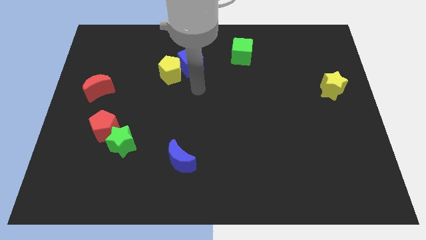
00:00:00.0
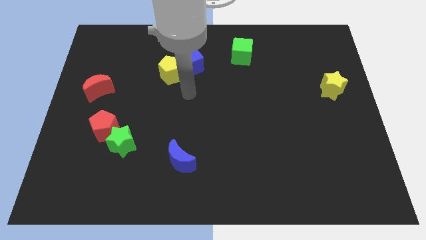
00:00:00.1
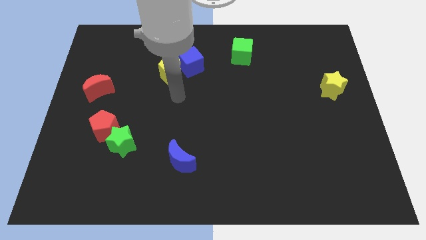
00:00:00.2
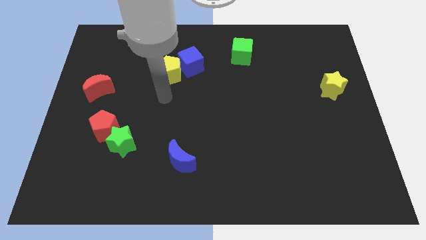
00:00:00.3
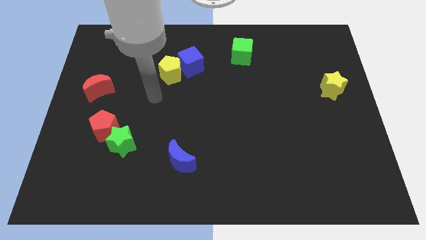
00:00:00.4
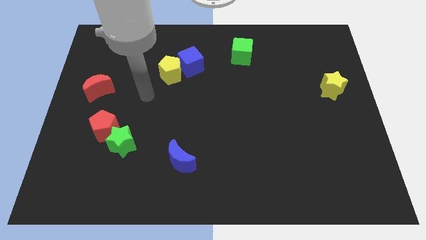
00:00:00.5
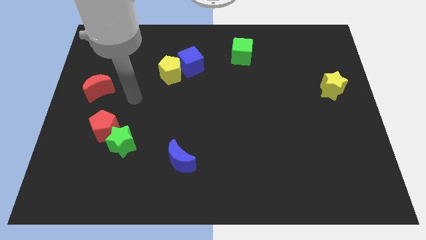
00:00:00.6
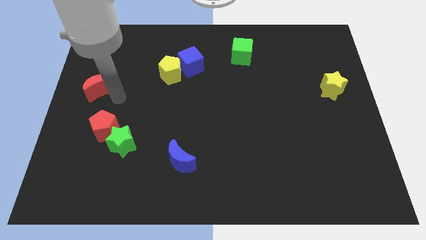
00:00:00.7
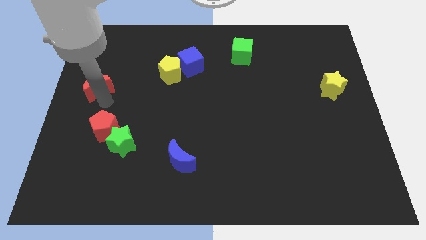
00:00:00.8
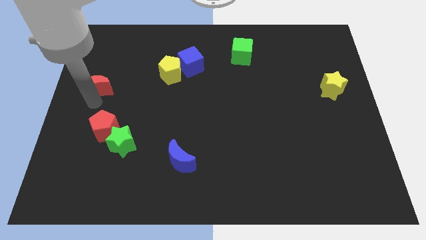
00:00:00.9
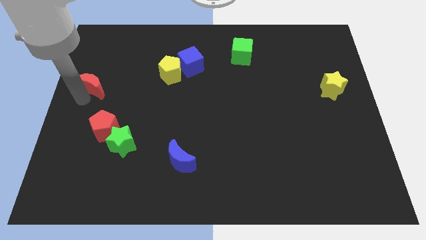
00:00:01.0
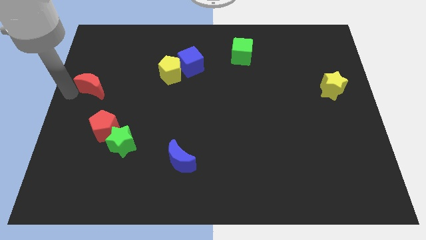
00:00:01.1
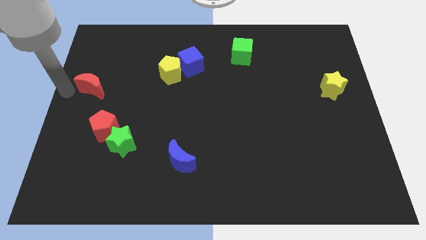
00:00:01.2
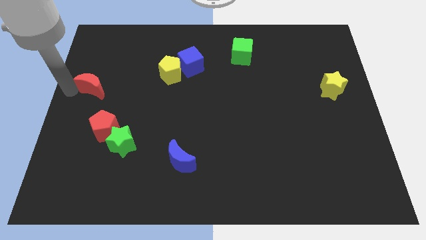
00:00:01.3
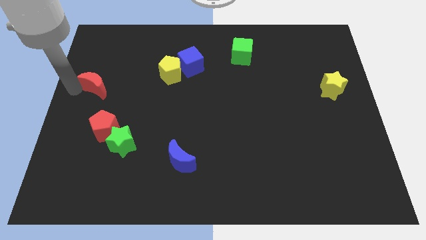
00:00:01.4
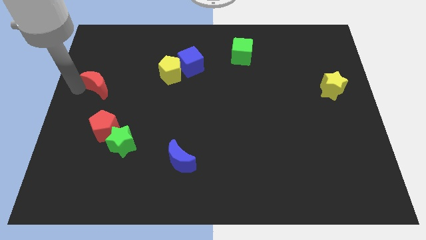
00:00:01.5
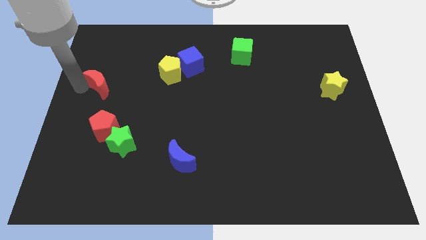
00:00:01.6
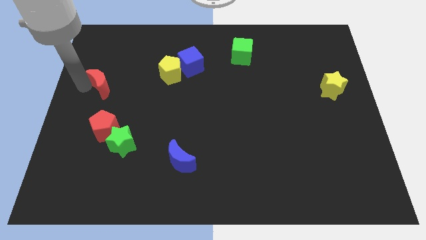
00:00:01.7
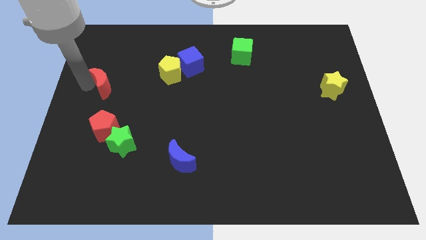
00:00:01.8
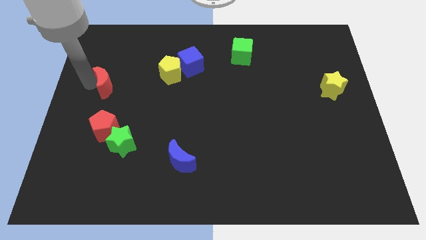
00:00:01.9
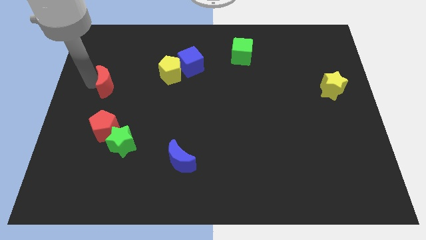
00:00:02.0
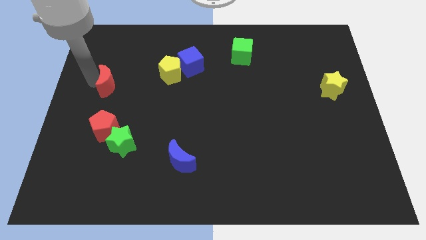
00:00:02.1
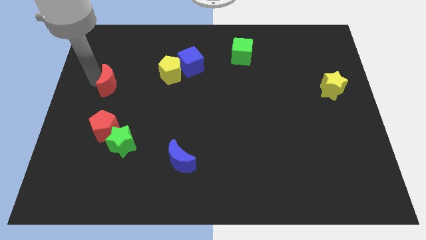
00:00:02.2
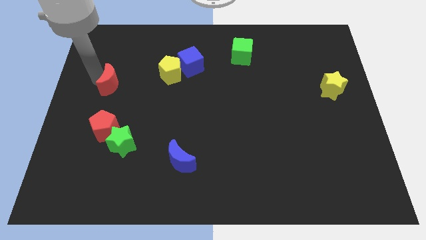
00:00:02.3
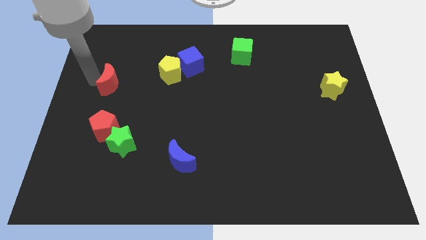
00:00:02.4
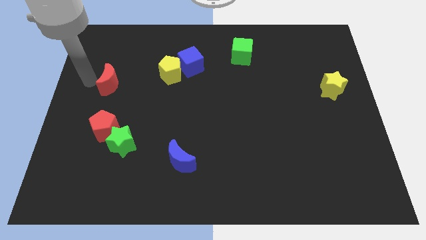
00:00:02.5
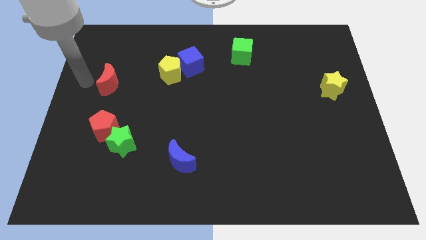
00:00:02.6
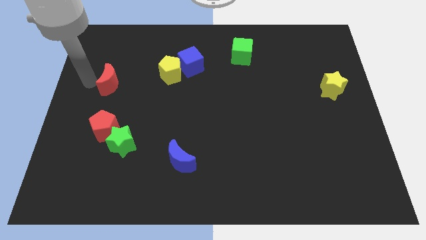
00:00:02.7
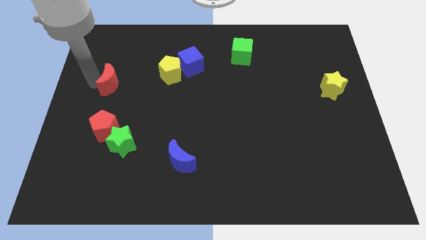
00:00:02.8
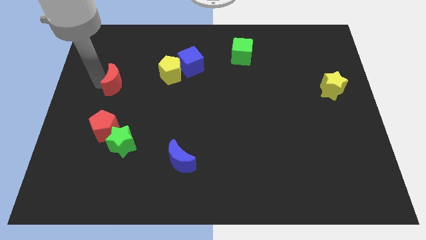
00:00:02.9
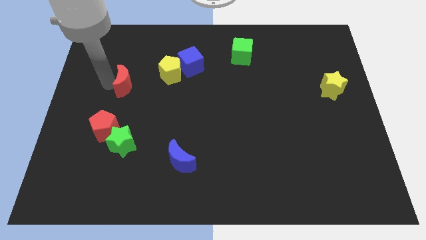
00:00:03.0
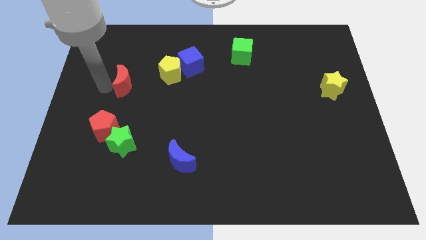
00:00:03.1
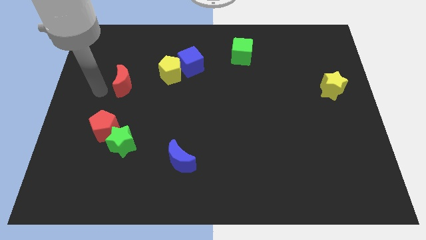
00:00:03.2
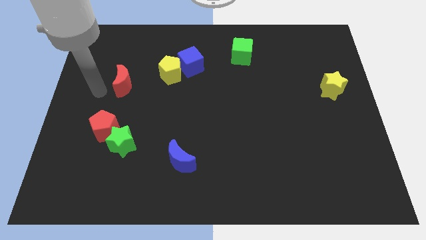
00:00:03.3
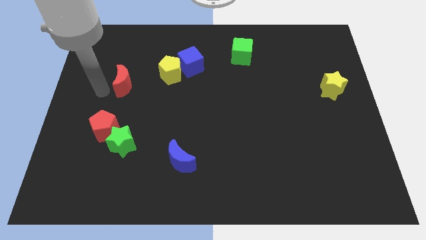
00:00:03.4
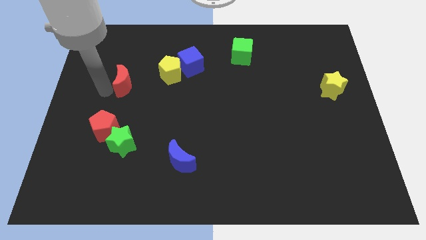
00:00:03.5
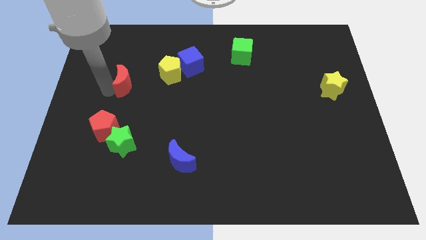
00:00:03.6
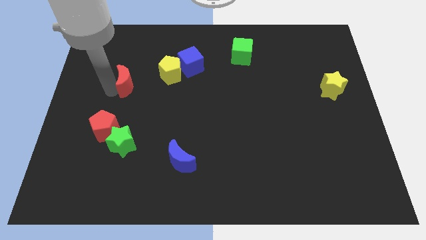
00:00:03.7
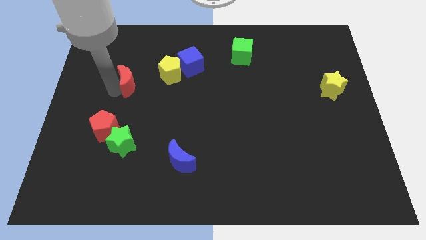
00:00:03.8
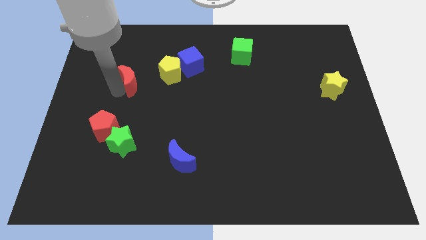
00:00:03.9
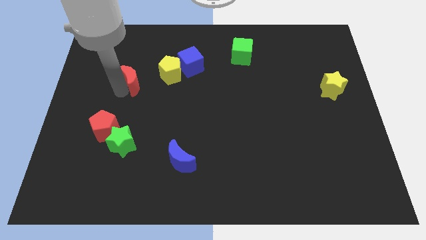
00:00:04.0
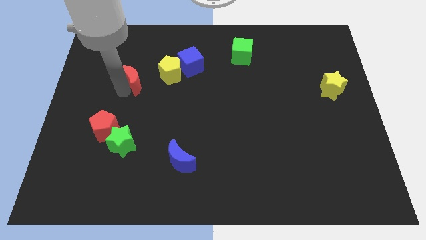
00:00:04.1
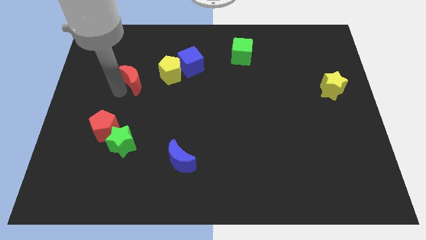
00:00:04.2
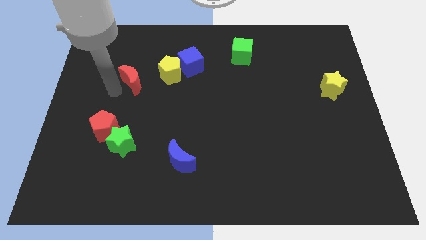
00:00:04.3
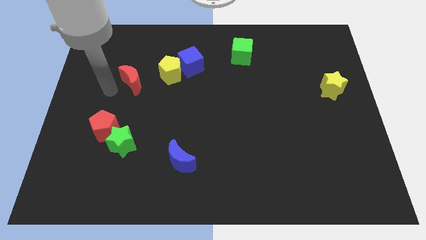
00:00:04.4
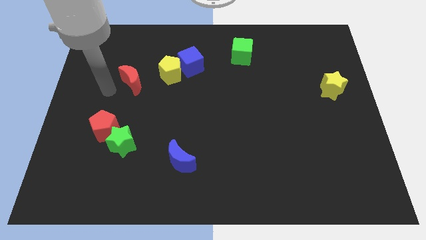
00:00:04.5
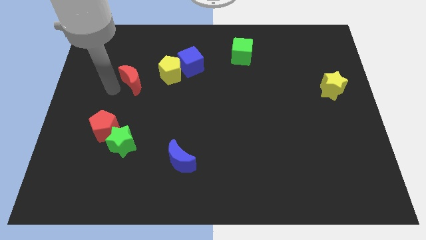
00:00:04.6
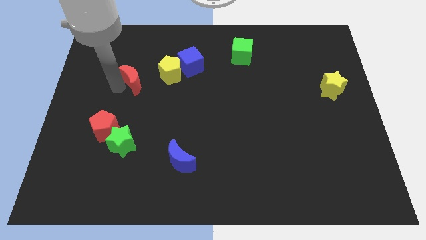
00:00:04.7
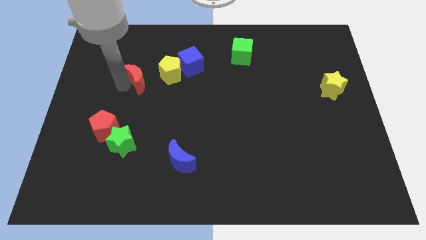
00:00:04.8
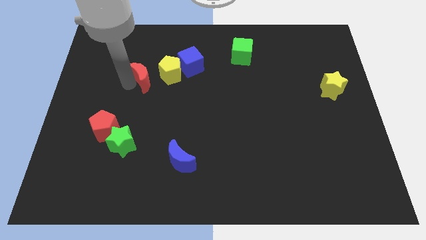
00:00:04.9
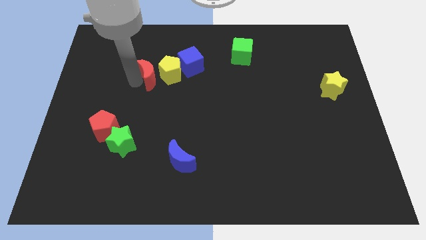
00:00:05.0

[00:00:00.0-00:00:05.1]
move the red moon next to the yellow pentagon
